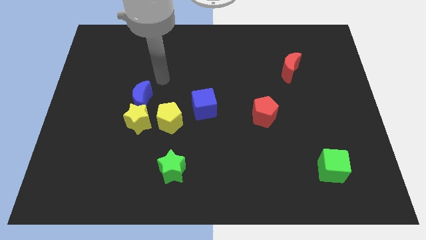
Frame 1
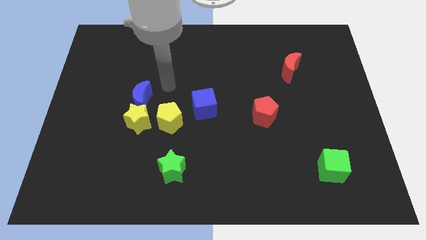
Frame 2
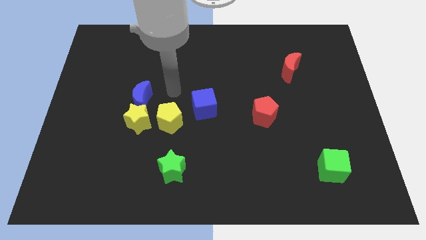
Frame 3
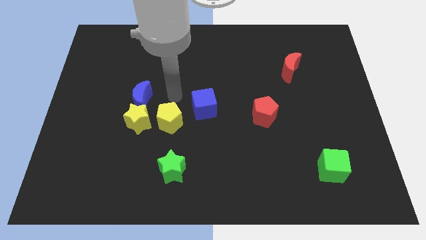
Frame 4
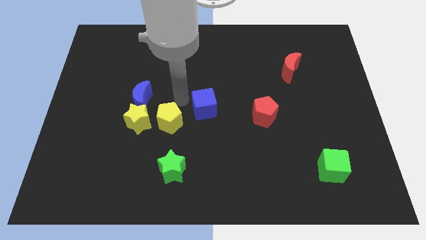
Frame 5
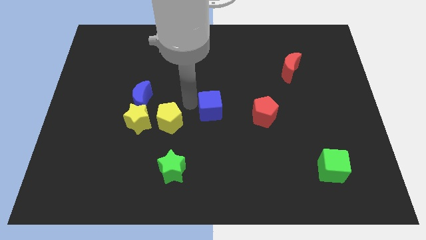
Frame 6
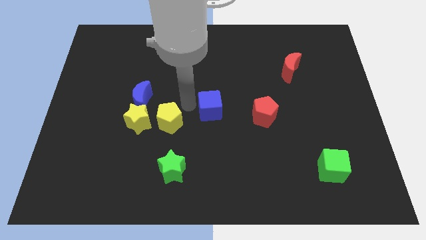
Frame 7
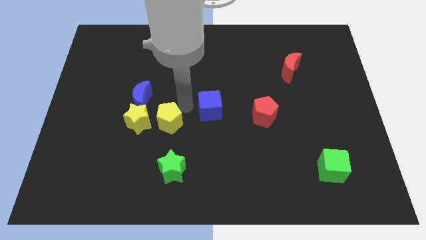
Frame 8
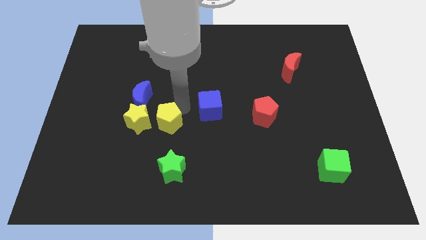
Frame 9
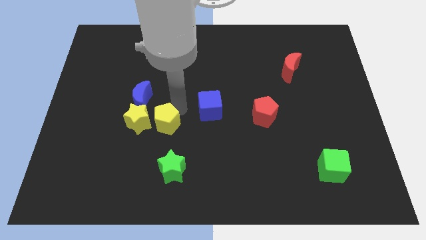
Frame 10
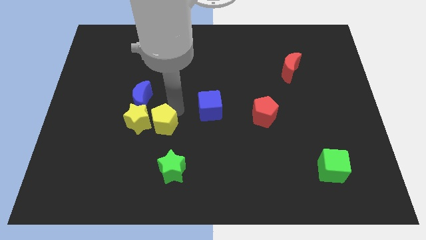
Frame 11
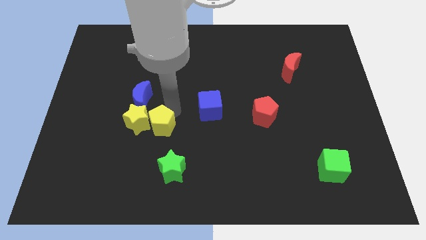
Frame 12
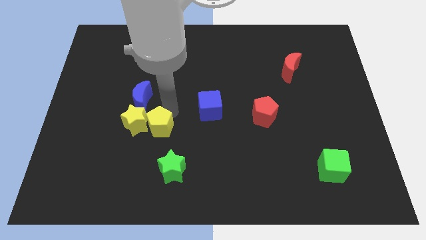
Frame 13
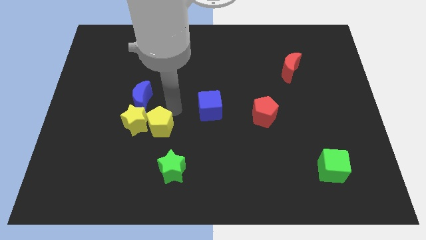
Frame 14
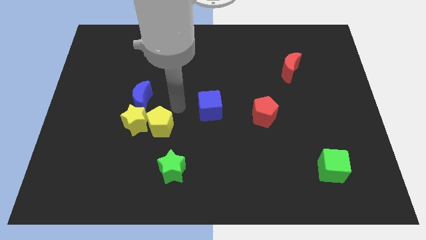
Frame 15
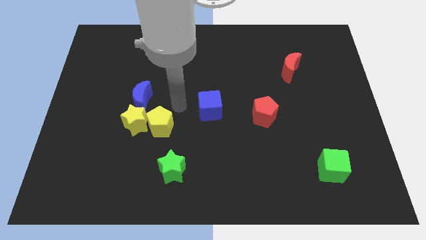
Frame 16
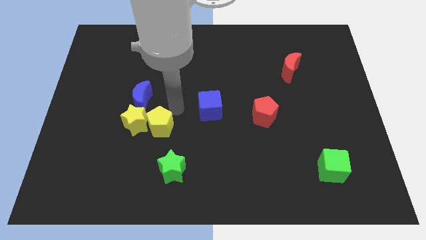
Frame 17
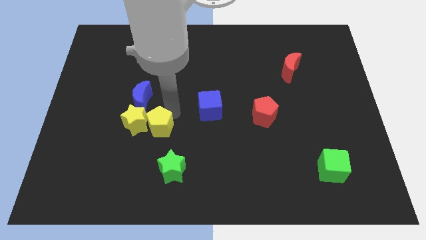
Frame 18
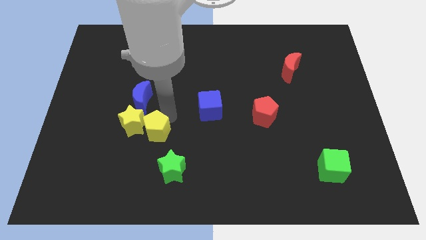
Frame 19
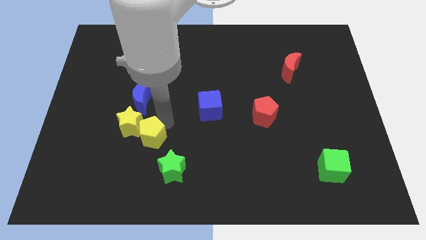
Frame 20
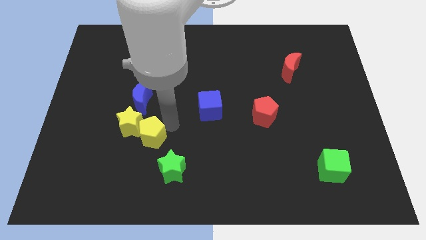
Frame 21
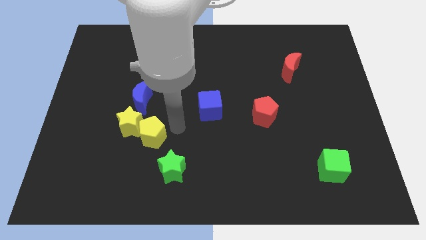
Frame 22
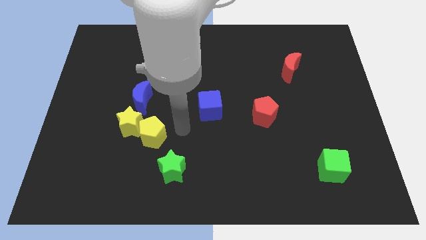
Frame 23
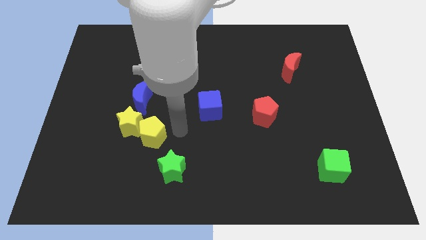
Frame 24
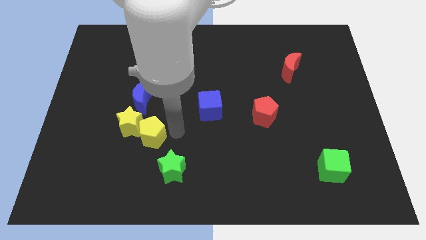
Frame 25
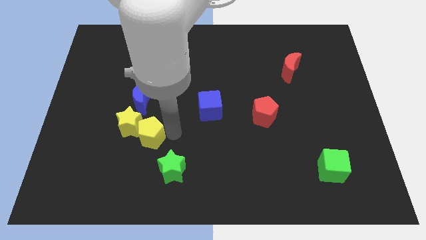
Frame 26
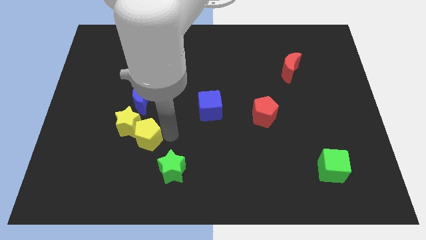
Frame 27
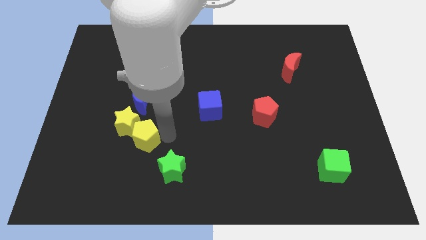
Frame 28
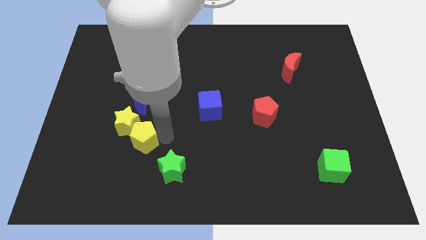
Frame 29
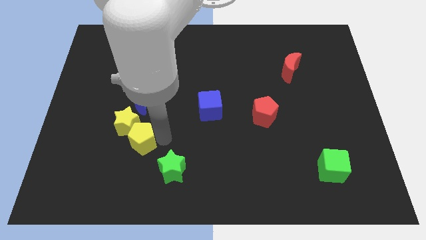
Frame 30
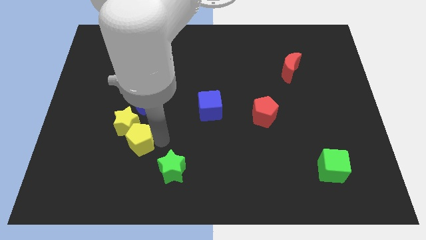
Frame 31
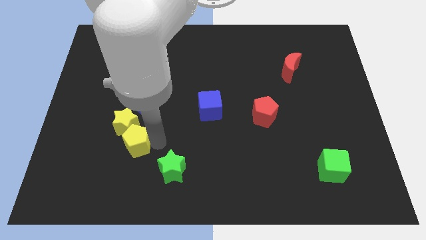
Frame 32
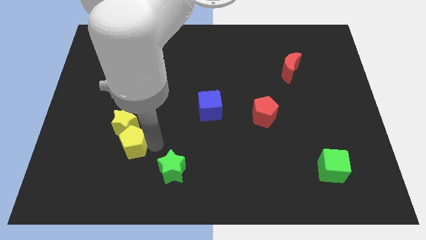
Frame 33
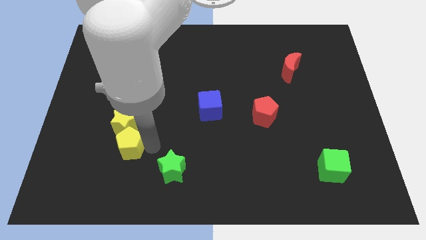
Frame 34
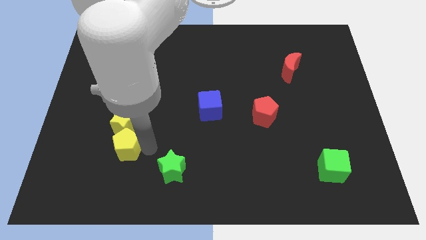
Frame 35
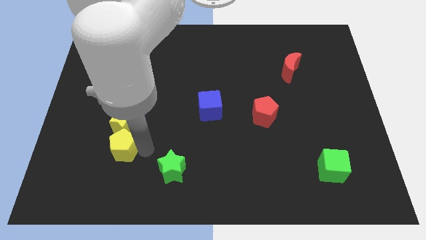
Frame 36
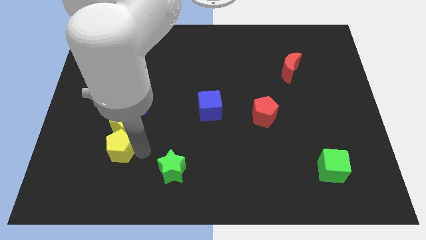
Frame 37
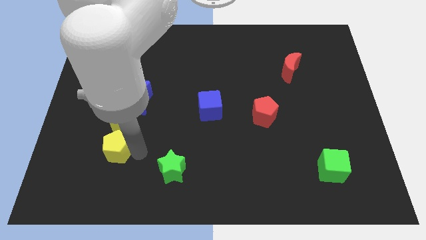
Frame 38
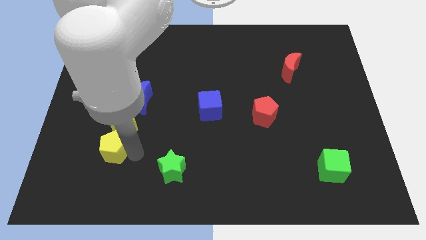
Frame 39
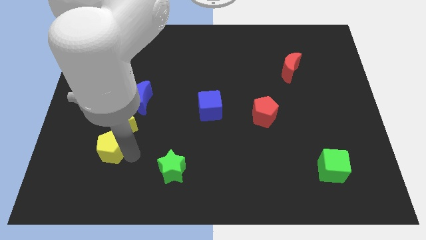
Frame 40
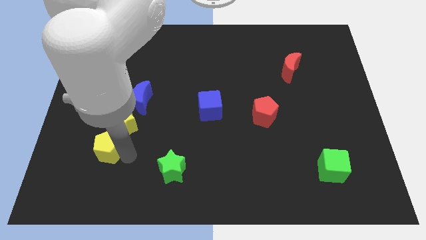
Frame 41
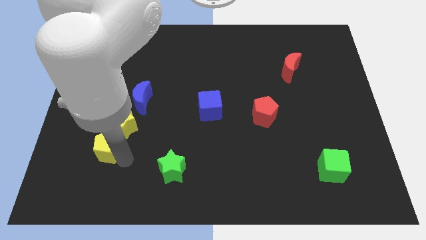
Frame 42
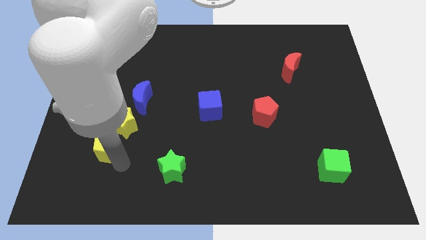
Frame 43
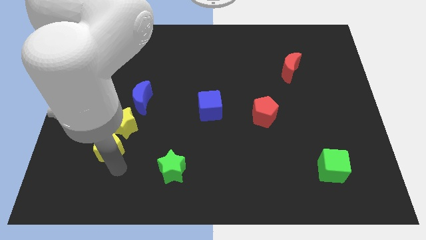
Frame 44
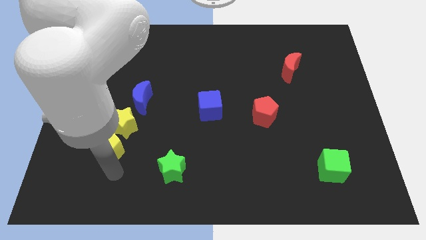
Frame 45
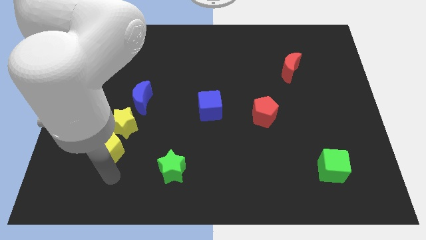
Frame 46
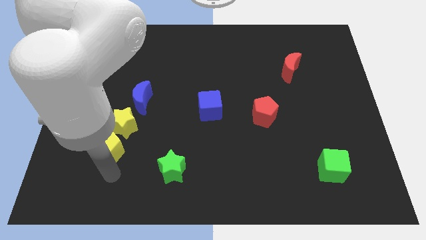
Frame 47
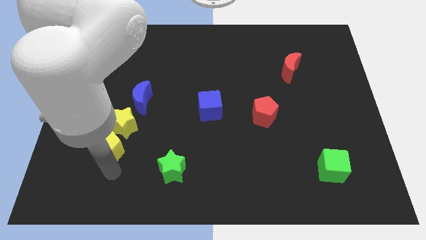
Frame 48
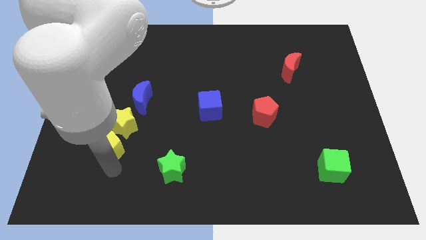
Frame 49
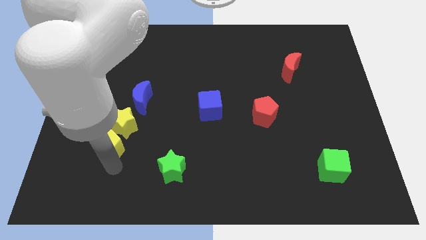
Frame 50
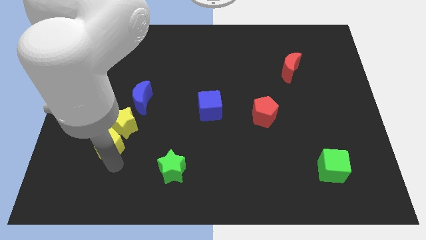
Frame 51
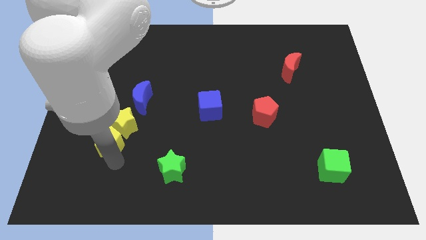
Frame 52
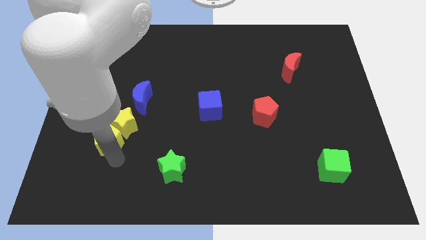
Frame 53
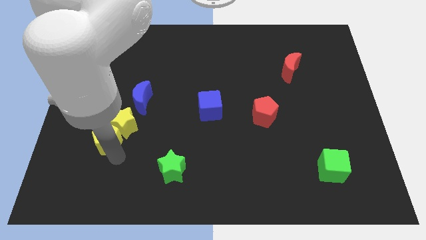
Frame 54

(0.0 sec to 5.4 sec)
move the yellow pentagon to the left side of the yellow star
